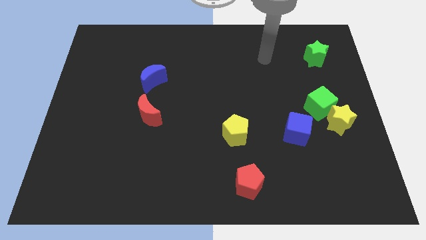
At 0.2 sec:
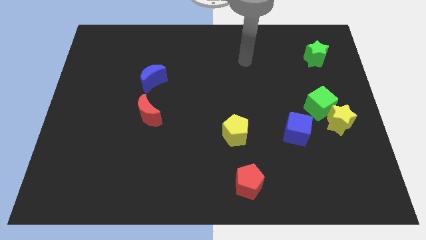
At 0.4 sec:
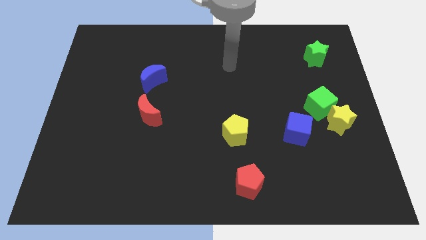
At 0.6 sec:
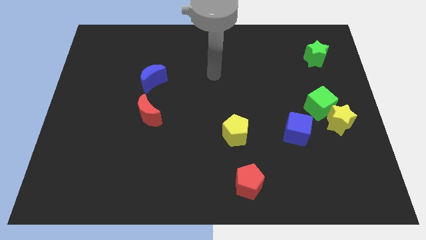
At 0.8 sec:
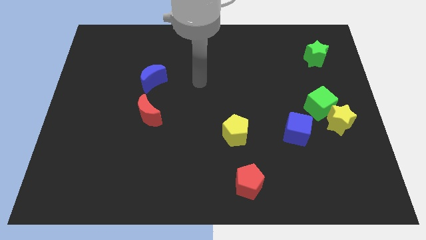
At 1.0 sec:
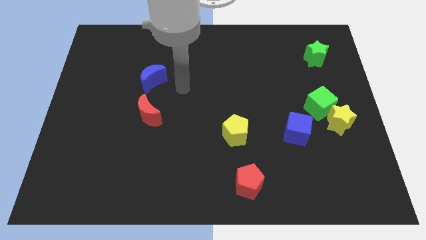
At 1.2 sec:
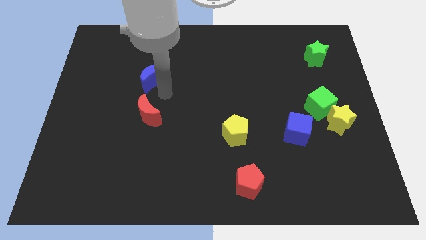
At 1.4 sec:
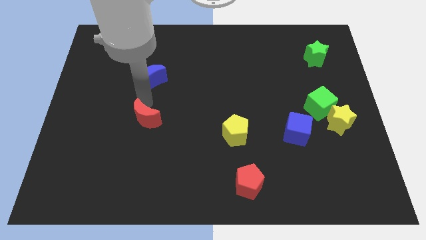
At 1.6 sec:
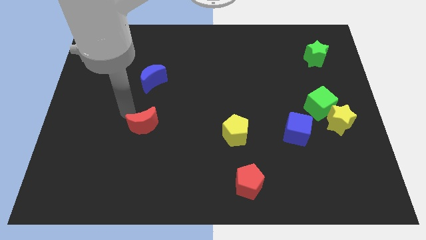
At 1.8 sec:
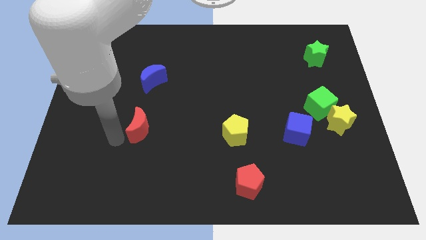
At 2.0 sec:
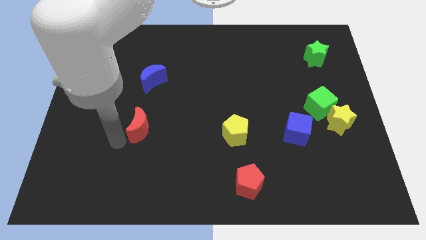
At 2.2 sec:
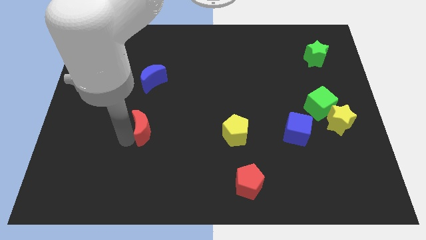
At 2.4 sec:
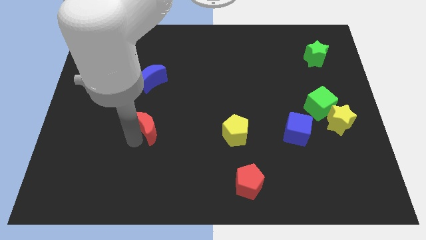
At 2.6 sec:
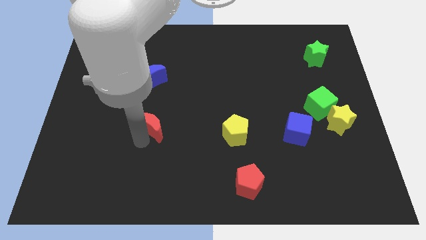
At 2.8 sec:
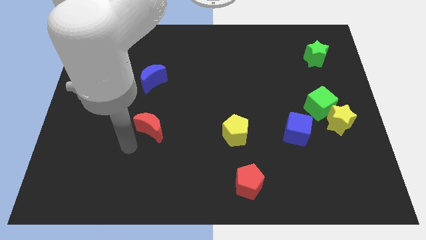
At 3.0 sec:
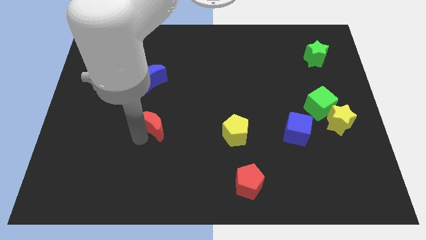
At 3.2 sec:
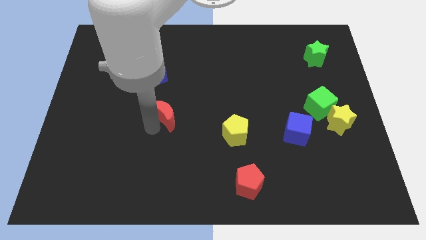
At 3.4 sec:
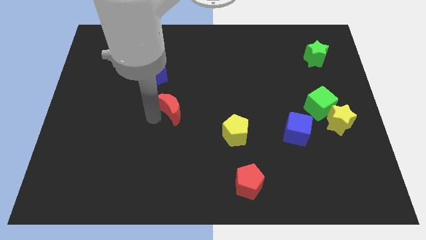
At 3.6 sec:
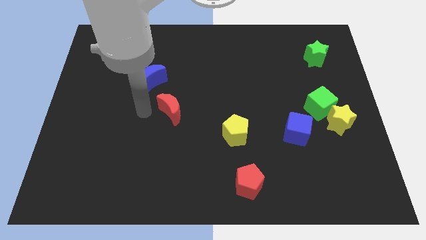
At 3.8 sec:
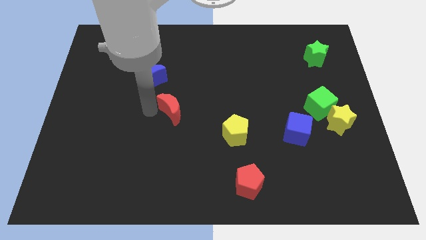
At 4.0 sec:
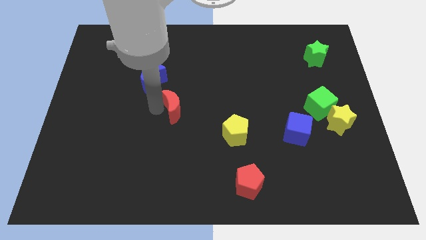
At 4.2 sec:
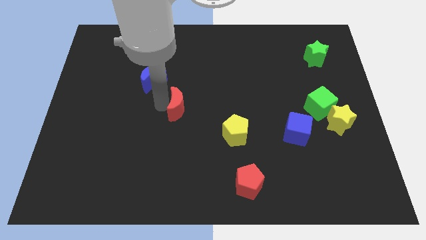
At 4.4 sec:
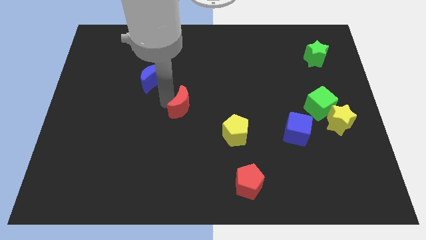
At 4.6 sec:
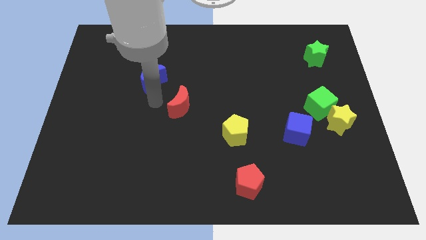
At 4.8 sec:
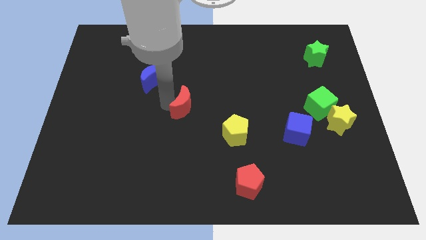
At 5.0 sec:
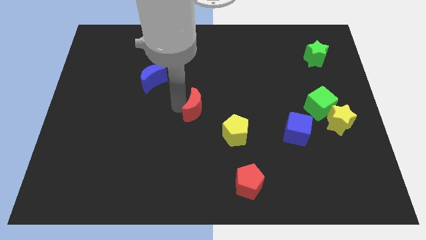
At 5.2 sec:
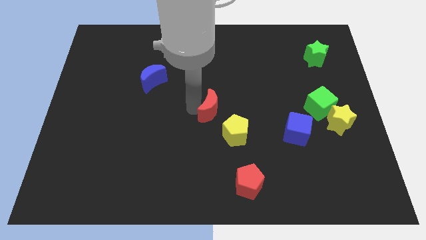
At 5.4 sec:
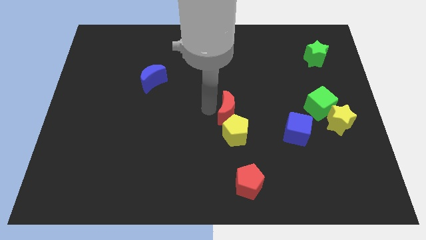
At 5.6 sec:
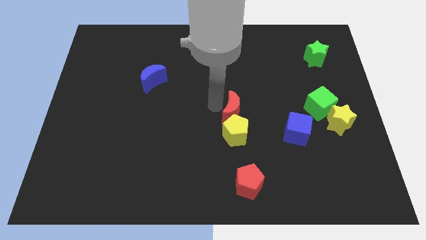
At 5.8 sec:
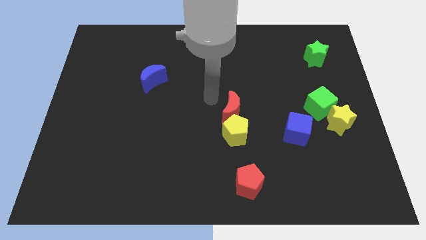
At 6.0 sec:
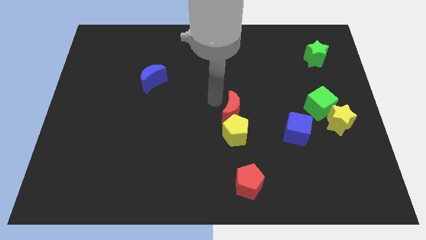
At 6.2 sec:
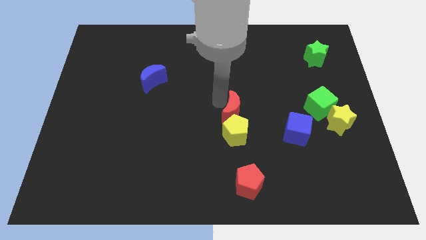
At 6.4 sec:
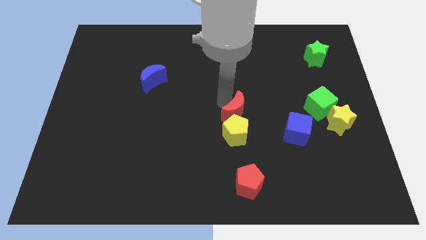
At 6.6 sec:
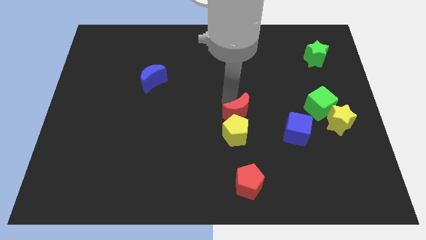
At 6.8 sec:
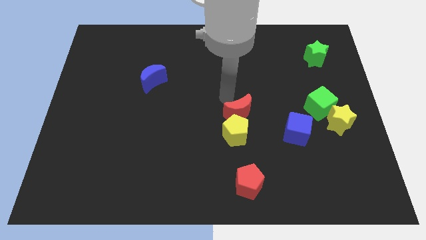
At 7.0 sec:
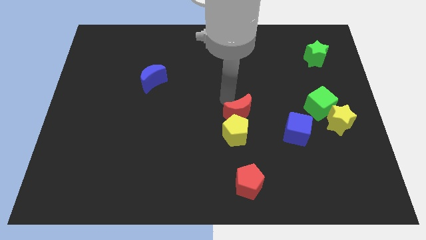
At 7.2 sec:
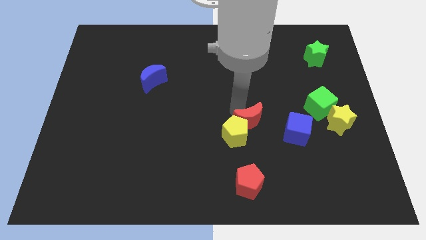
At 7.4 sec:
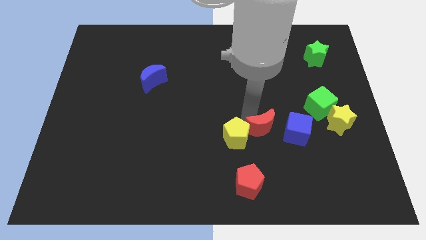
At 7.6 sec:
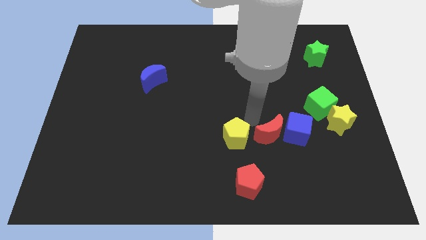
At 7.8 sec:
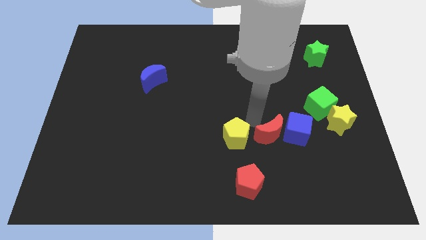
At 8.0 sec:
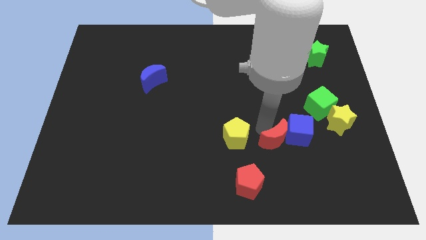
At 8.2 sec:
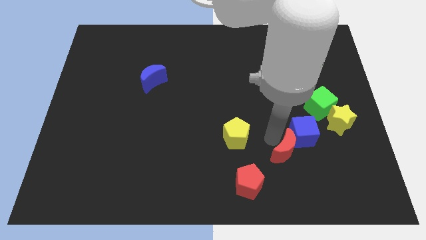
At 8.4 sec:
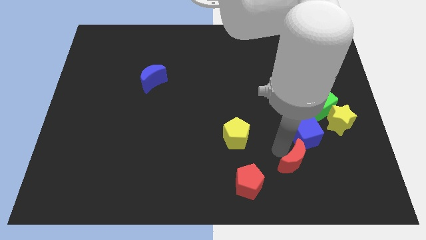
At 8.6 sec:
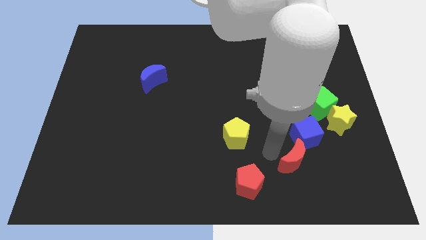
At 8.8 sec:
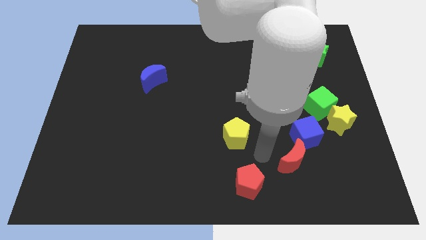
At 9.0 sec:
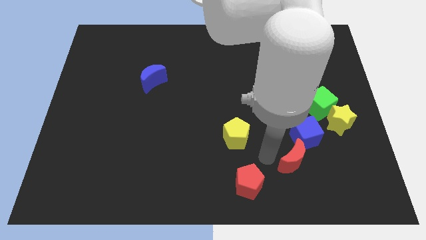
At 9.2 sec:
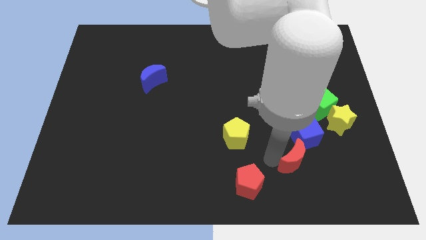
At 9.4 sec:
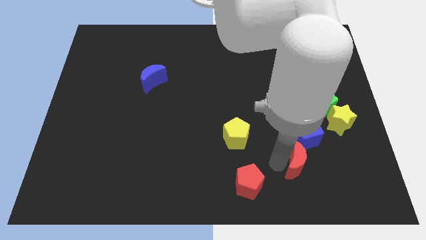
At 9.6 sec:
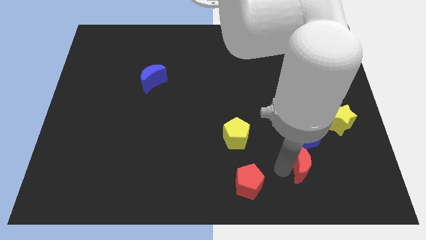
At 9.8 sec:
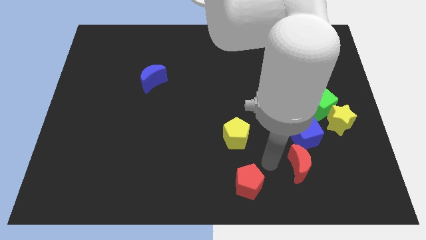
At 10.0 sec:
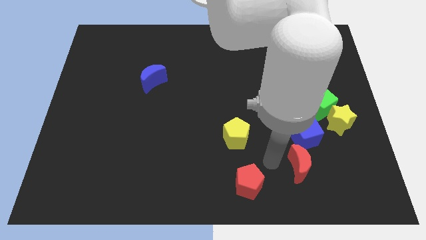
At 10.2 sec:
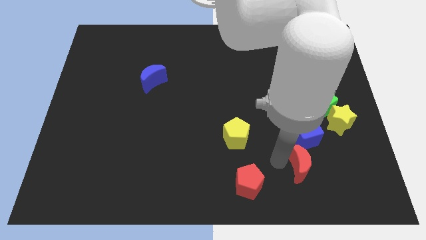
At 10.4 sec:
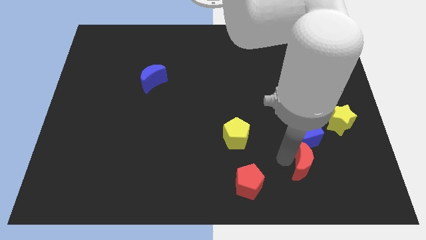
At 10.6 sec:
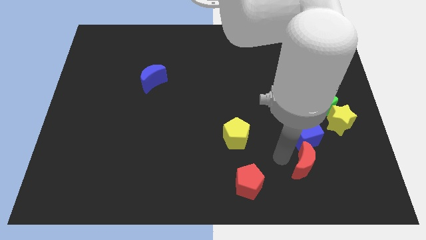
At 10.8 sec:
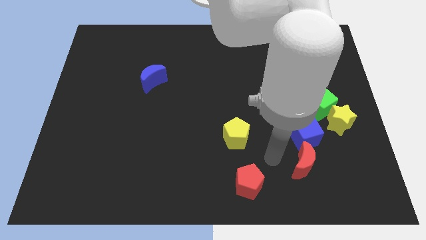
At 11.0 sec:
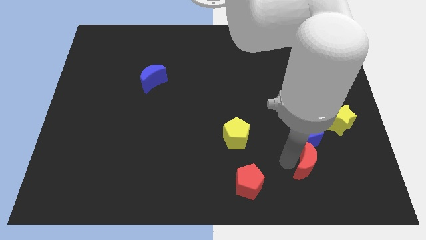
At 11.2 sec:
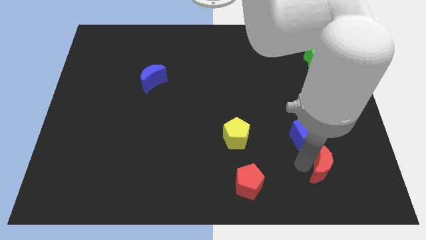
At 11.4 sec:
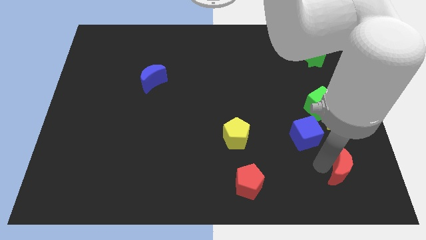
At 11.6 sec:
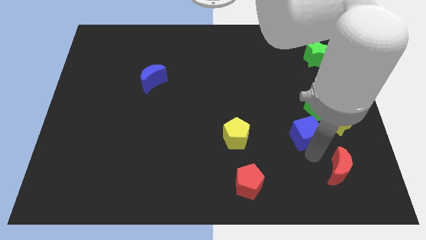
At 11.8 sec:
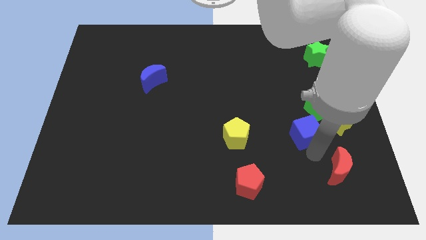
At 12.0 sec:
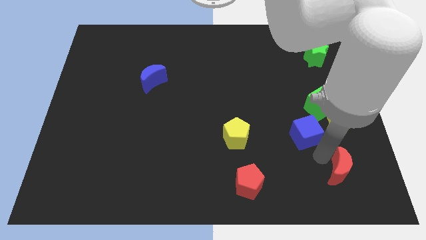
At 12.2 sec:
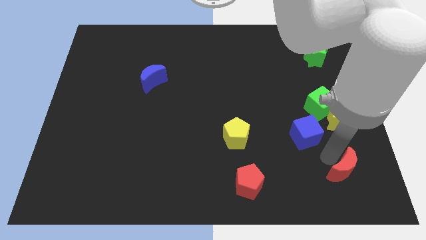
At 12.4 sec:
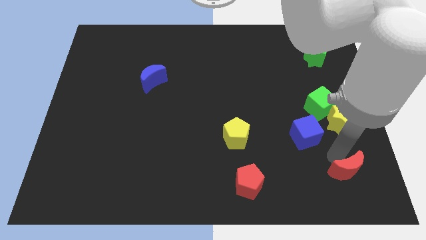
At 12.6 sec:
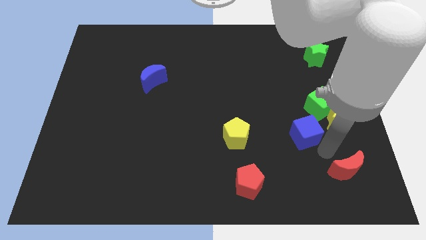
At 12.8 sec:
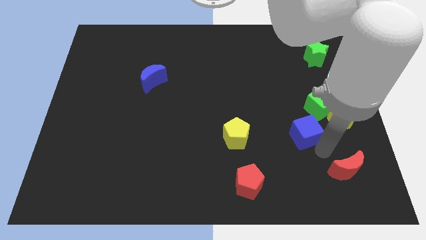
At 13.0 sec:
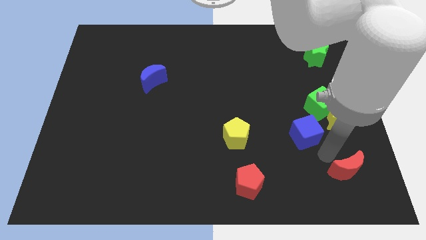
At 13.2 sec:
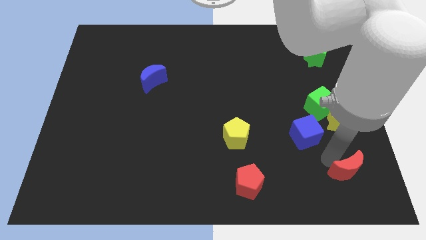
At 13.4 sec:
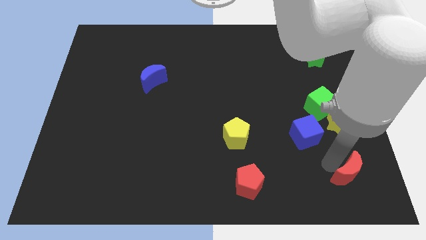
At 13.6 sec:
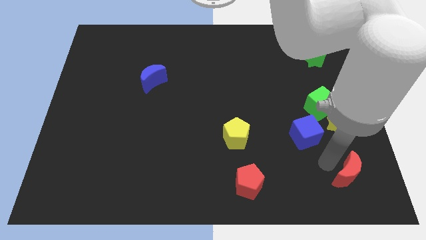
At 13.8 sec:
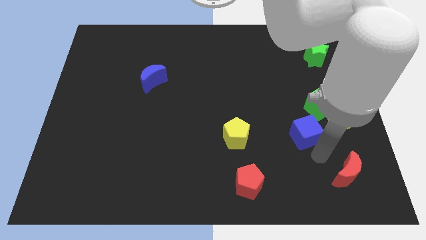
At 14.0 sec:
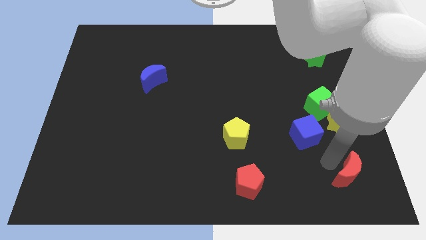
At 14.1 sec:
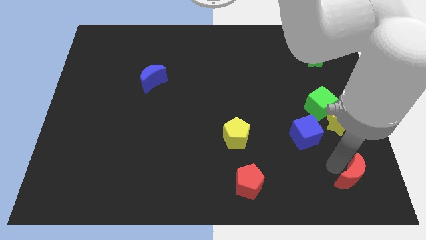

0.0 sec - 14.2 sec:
put the red moon to the bottom right of the board
